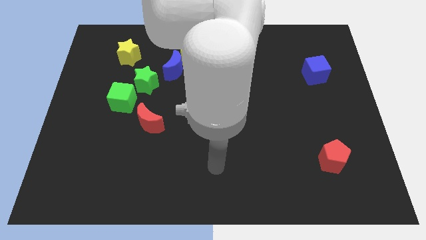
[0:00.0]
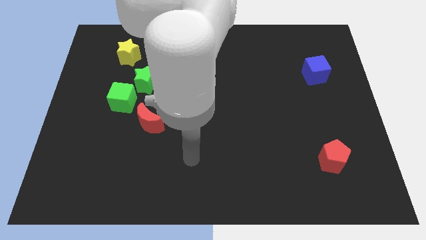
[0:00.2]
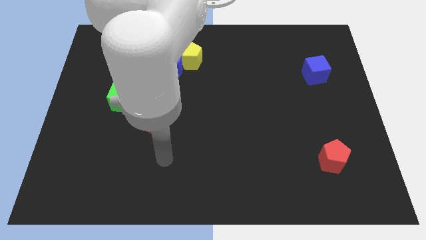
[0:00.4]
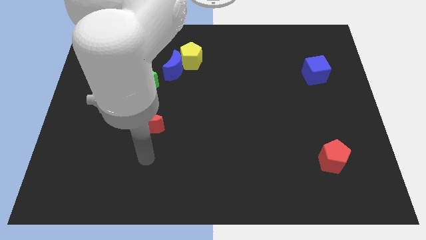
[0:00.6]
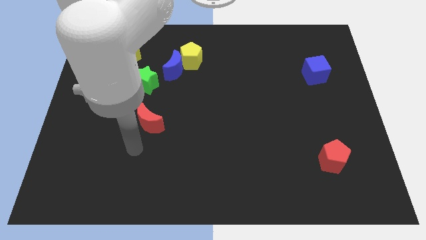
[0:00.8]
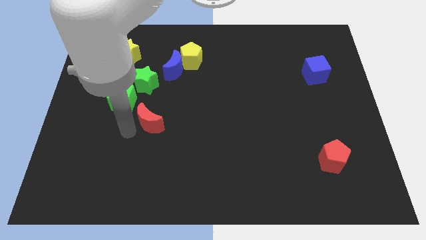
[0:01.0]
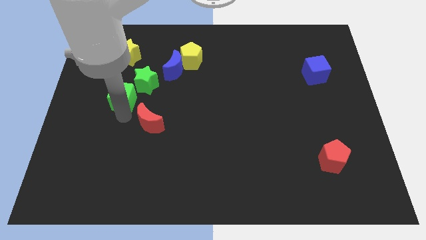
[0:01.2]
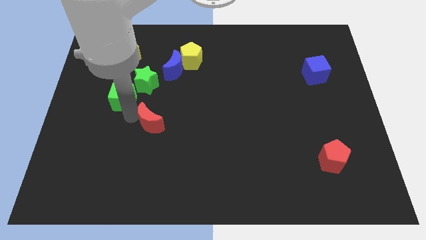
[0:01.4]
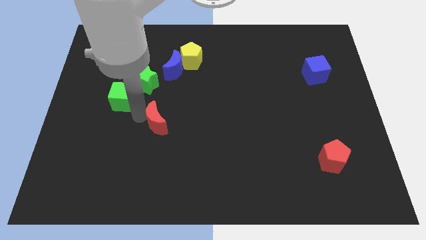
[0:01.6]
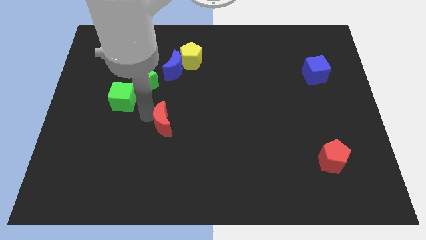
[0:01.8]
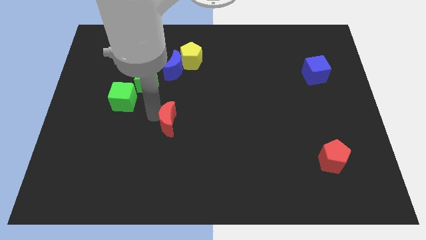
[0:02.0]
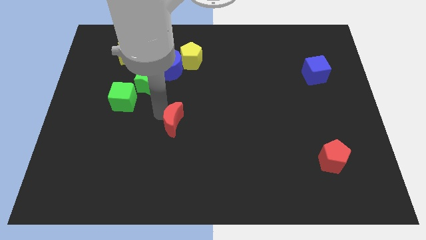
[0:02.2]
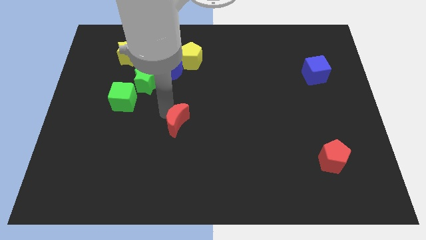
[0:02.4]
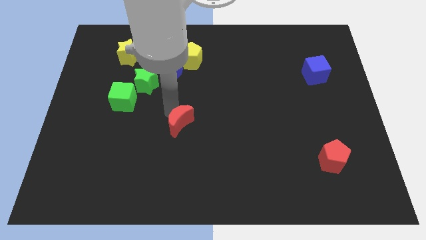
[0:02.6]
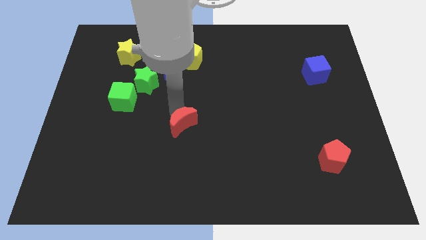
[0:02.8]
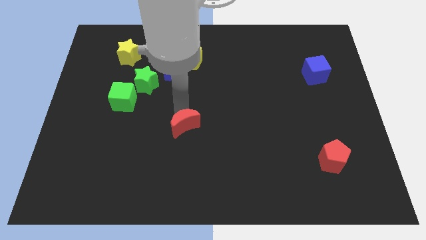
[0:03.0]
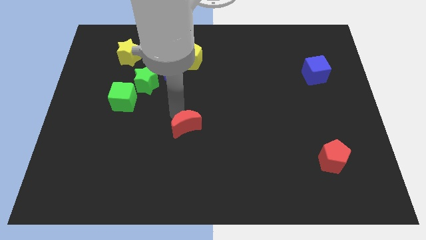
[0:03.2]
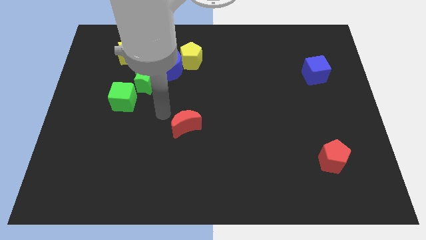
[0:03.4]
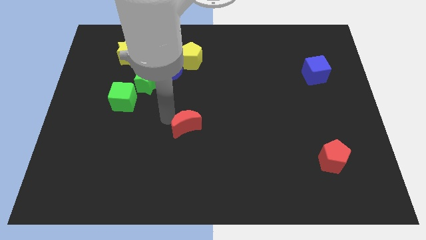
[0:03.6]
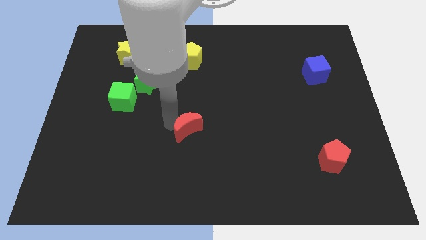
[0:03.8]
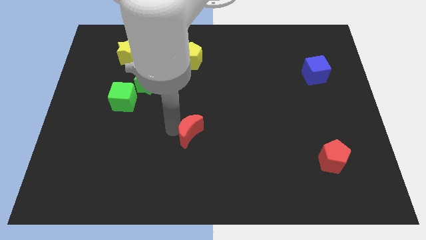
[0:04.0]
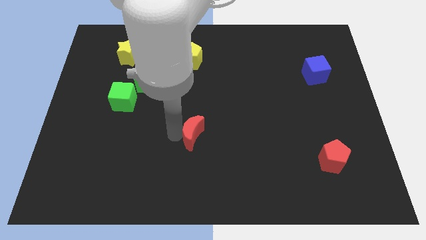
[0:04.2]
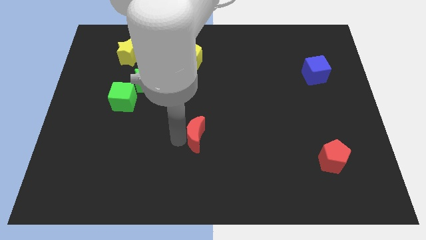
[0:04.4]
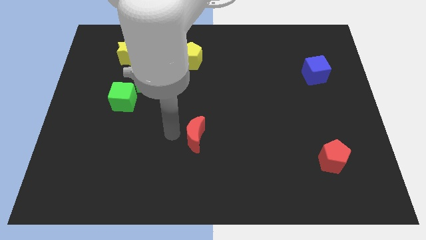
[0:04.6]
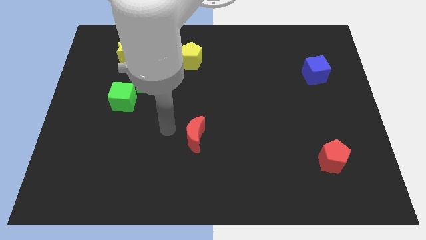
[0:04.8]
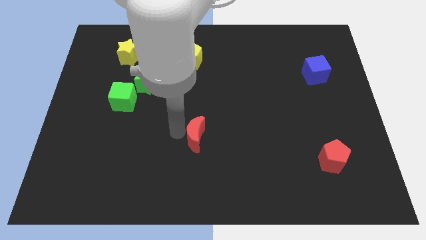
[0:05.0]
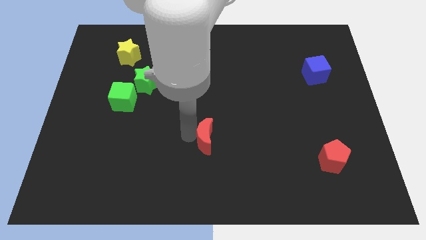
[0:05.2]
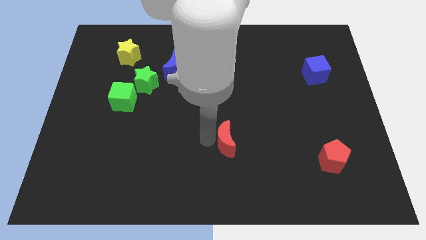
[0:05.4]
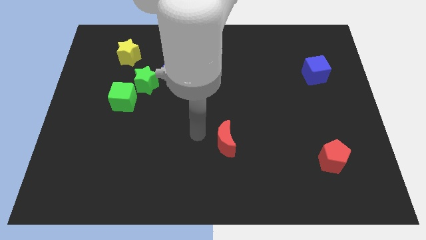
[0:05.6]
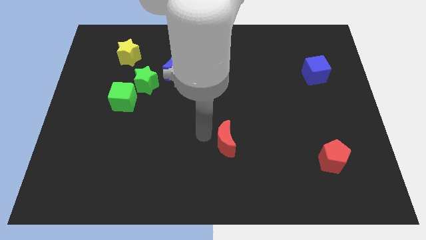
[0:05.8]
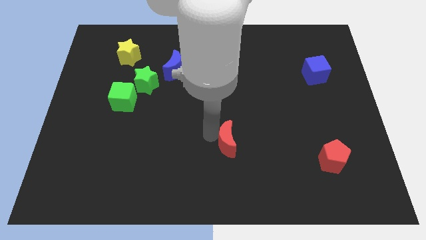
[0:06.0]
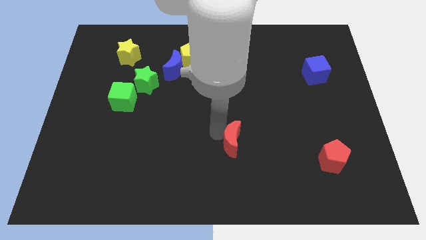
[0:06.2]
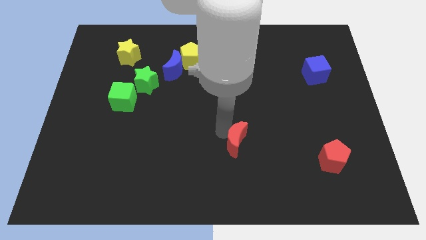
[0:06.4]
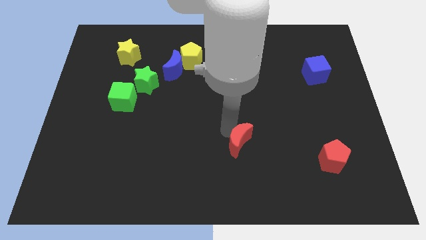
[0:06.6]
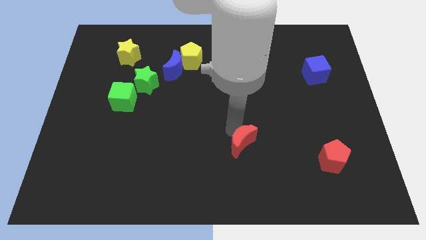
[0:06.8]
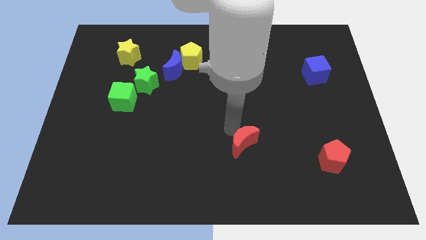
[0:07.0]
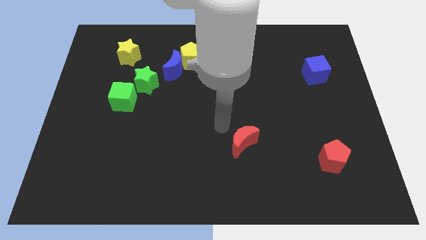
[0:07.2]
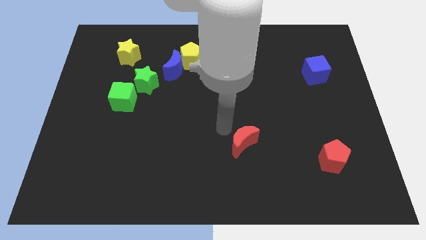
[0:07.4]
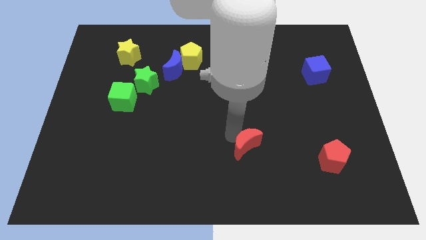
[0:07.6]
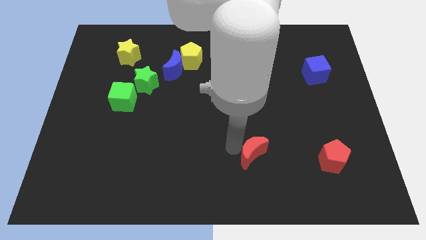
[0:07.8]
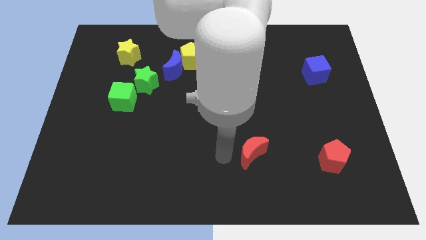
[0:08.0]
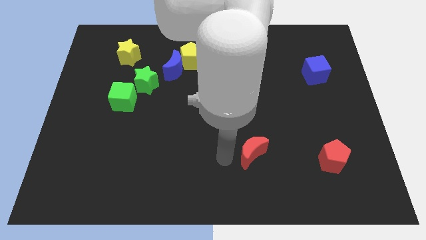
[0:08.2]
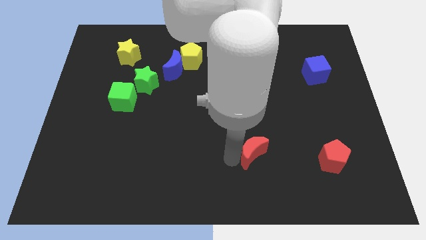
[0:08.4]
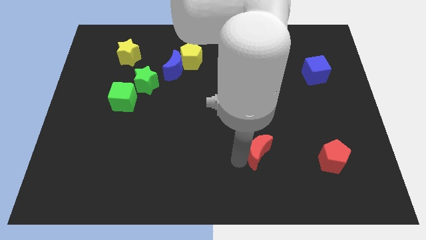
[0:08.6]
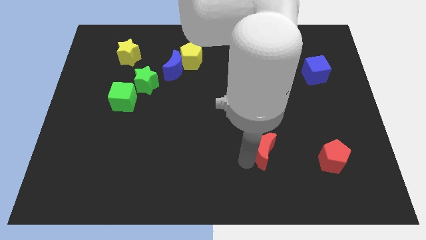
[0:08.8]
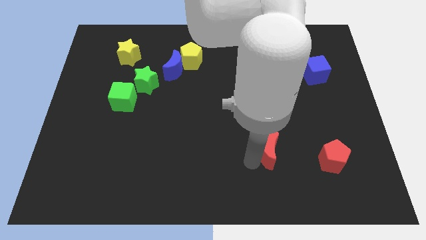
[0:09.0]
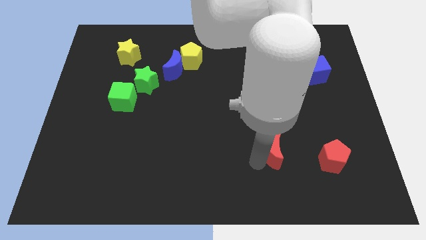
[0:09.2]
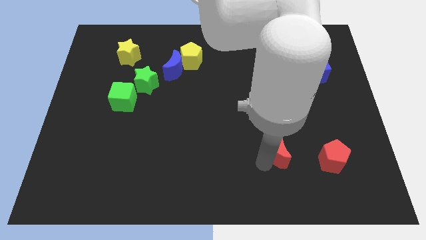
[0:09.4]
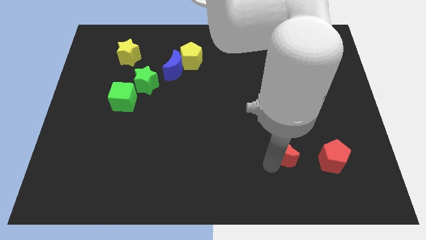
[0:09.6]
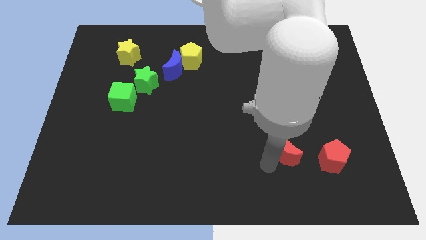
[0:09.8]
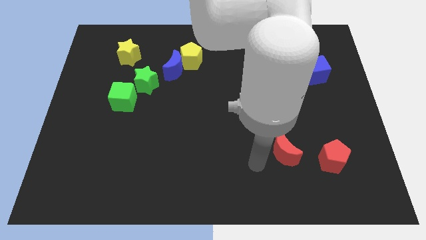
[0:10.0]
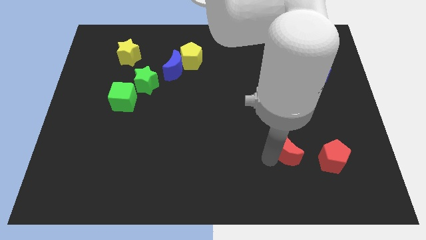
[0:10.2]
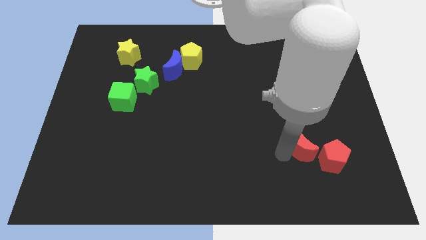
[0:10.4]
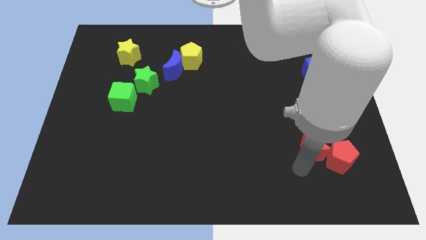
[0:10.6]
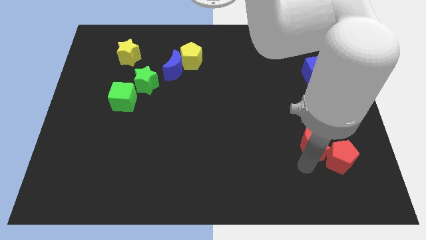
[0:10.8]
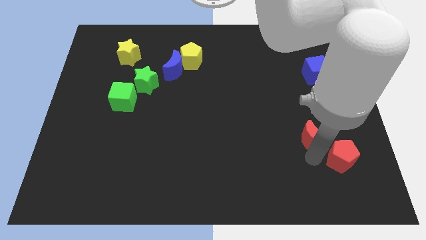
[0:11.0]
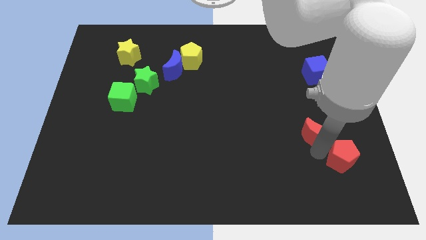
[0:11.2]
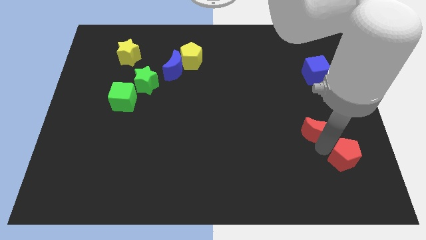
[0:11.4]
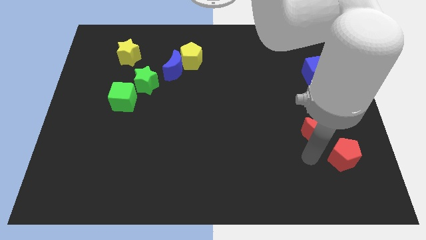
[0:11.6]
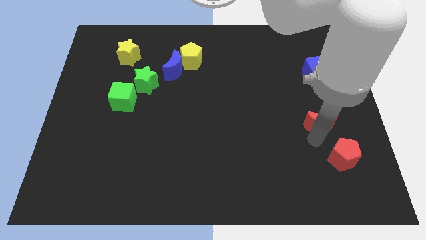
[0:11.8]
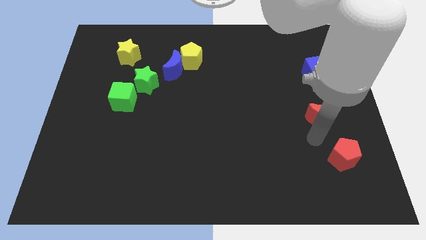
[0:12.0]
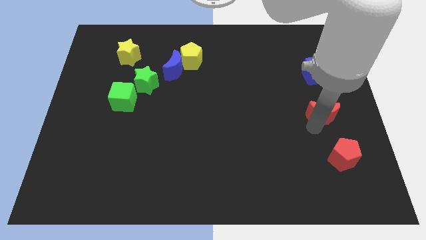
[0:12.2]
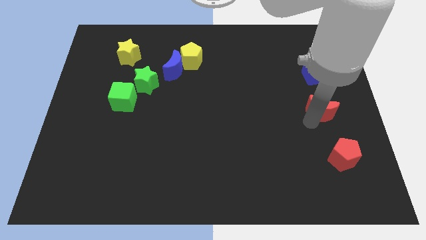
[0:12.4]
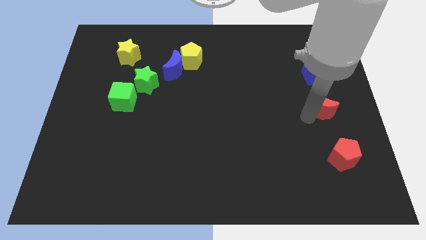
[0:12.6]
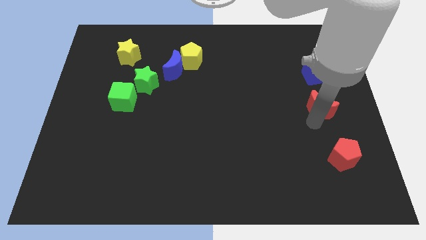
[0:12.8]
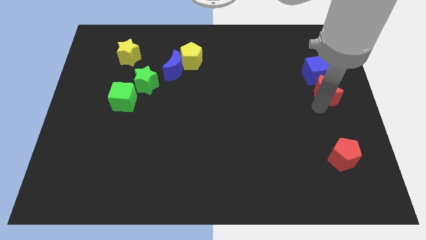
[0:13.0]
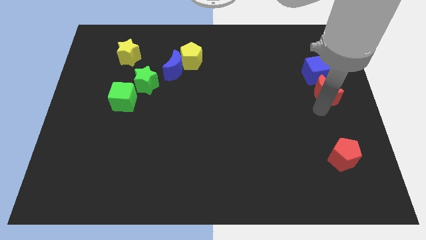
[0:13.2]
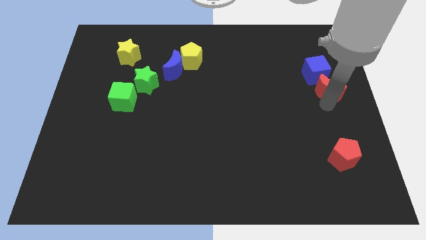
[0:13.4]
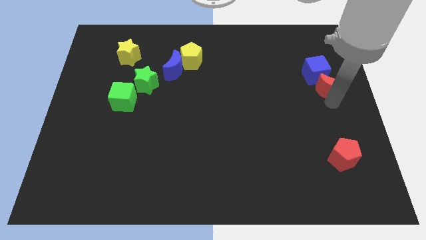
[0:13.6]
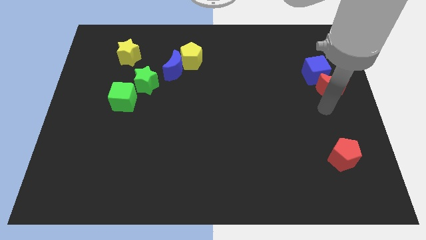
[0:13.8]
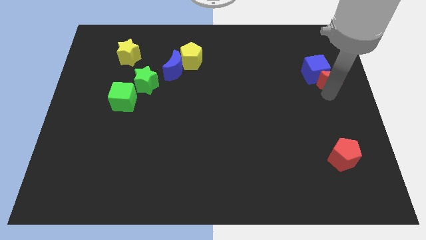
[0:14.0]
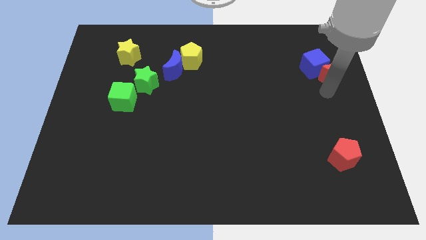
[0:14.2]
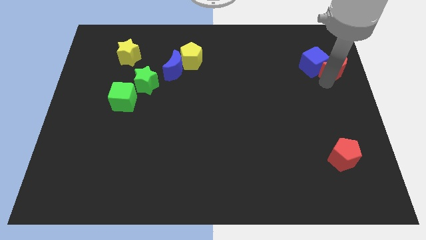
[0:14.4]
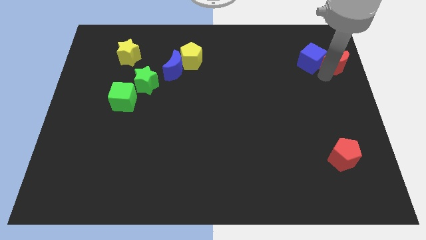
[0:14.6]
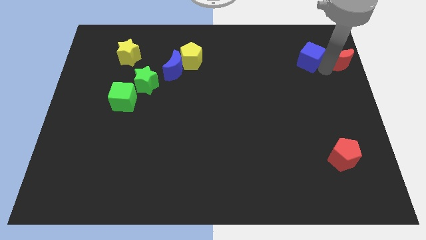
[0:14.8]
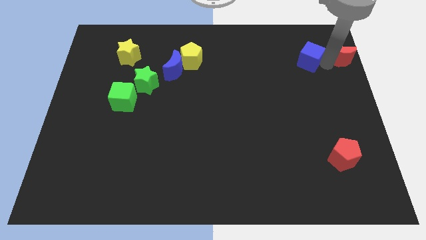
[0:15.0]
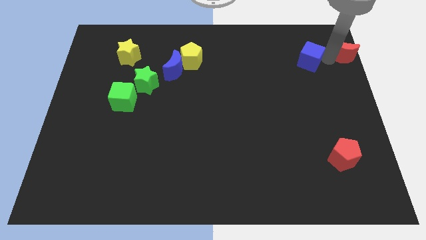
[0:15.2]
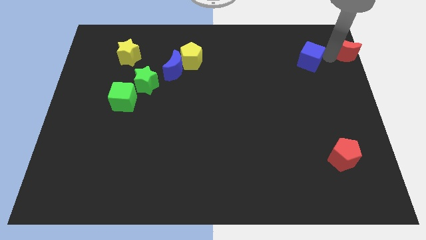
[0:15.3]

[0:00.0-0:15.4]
push the red moon to the top right
